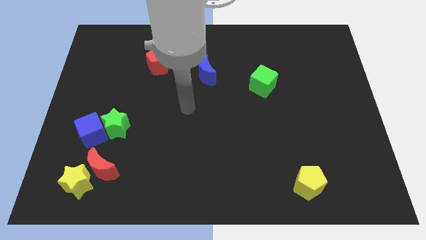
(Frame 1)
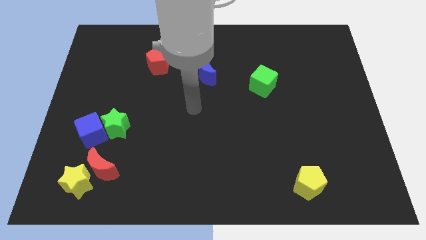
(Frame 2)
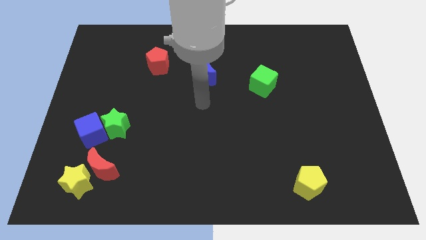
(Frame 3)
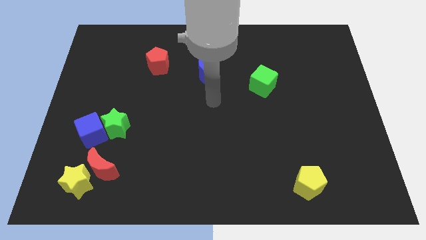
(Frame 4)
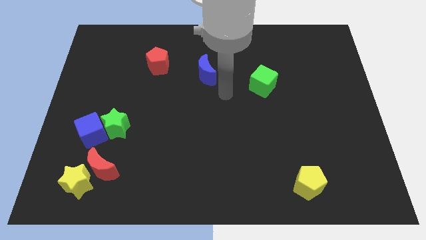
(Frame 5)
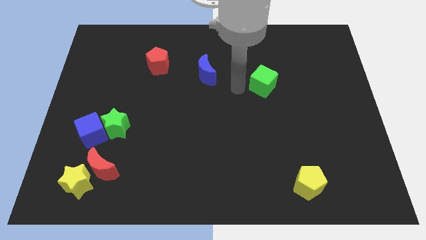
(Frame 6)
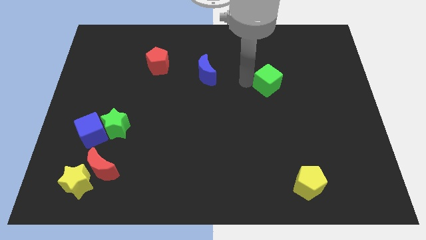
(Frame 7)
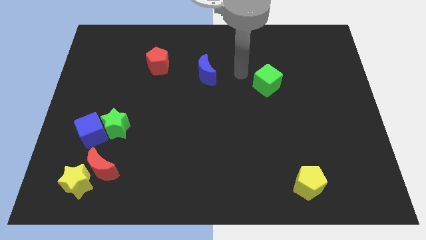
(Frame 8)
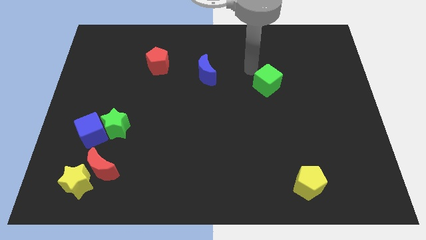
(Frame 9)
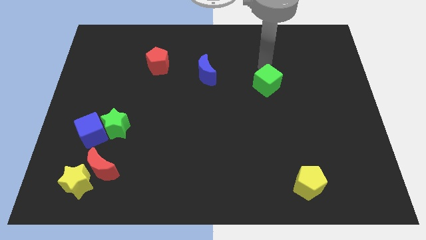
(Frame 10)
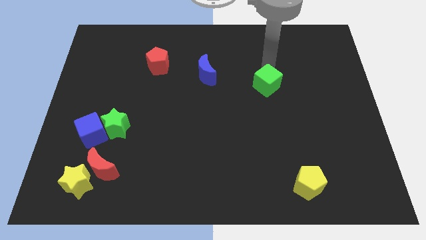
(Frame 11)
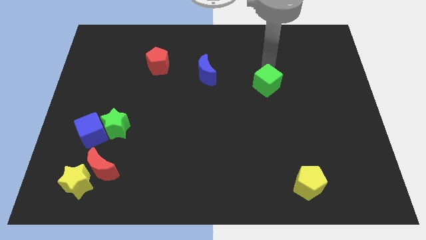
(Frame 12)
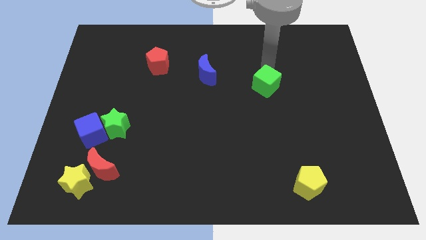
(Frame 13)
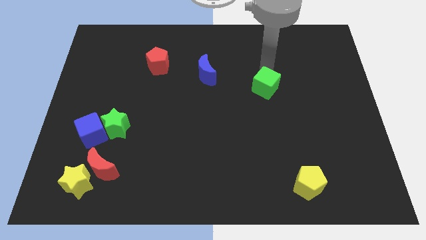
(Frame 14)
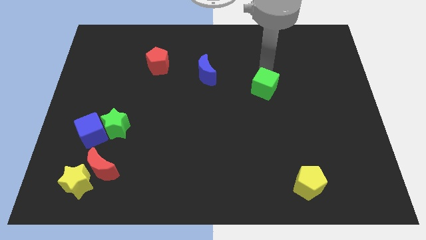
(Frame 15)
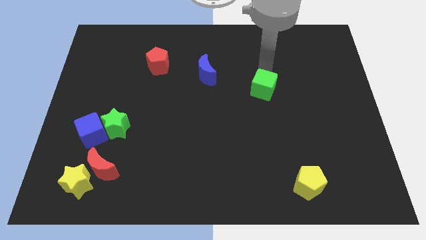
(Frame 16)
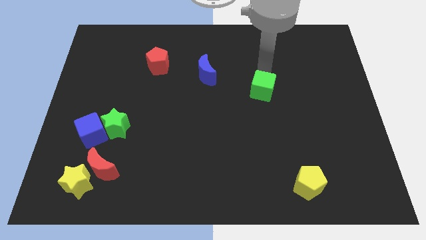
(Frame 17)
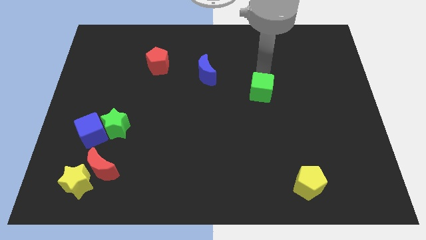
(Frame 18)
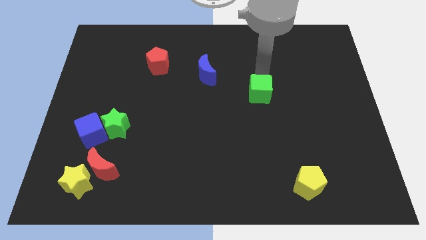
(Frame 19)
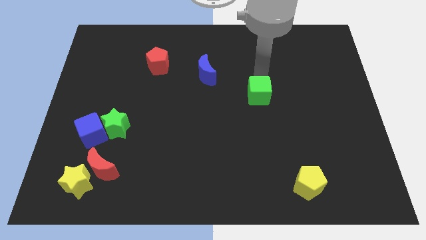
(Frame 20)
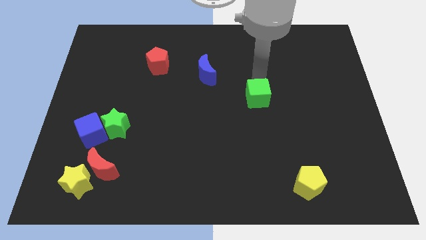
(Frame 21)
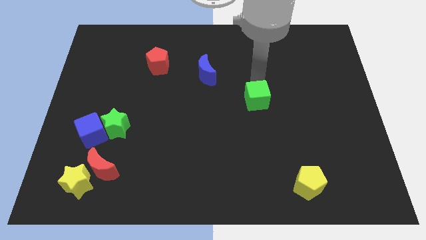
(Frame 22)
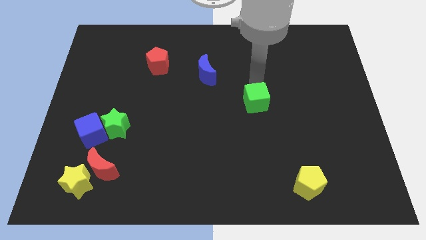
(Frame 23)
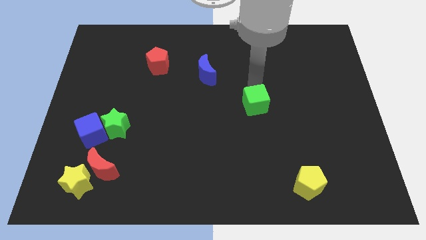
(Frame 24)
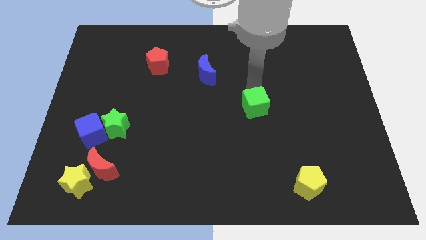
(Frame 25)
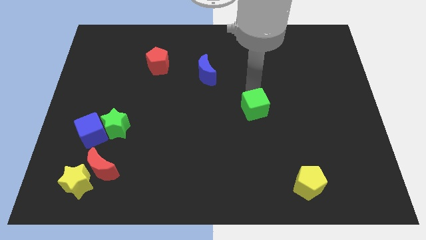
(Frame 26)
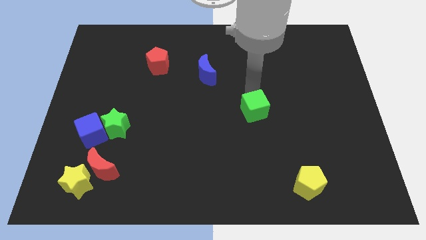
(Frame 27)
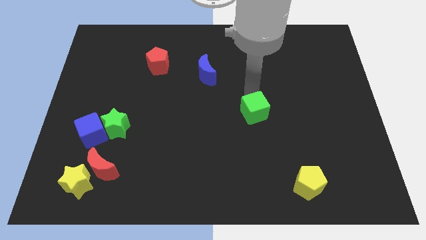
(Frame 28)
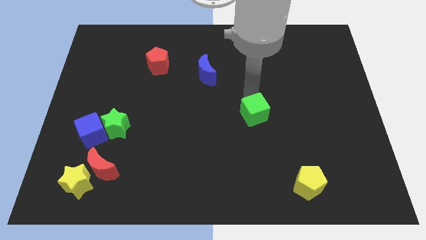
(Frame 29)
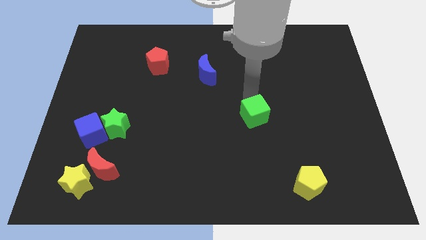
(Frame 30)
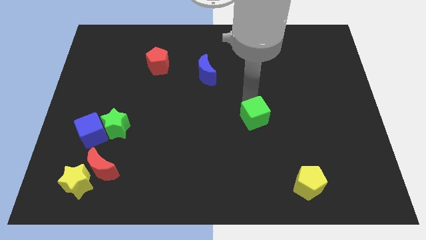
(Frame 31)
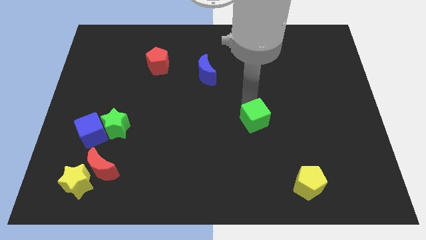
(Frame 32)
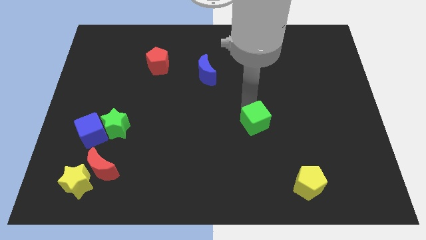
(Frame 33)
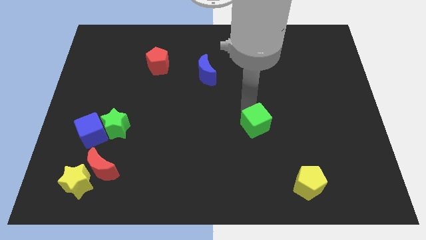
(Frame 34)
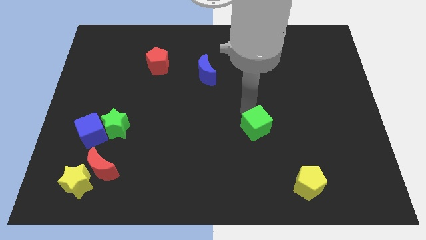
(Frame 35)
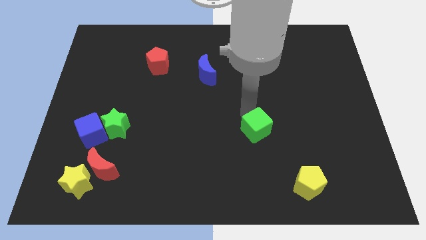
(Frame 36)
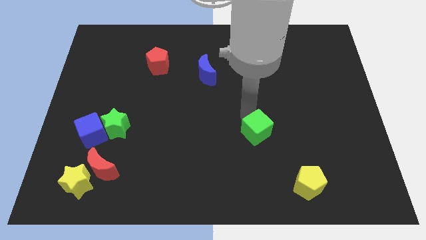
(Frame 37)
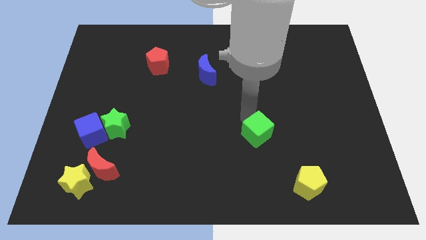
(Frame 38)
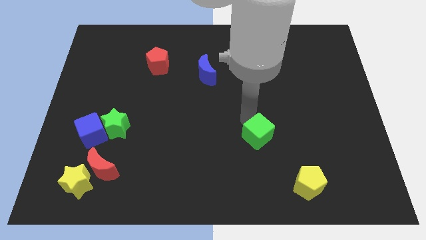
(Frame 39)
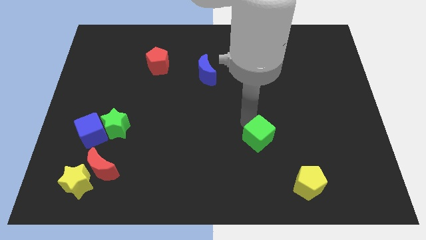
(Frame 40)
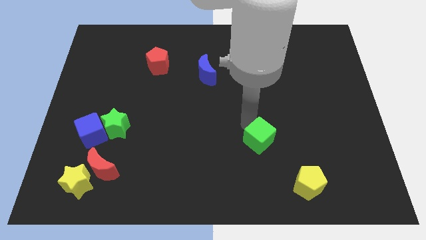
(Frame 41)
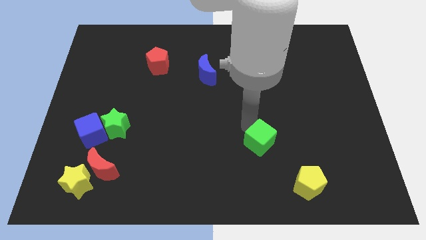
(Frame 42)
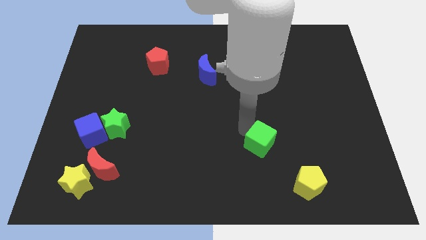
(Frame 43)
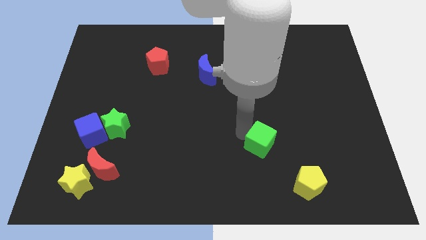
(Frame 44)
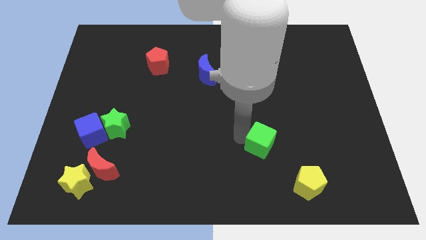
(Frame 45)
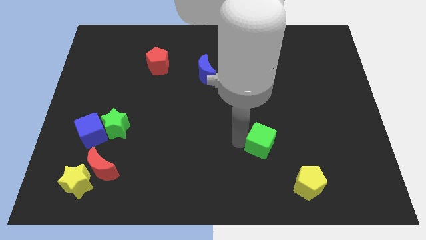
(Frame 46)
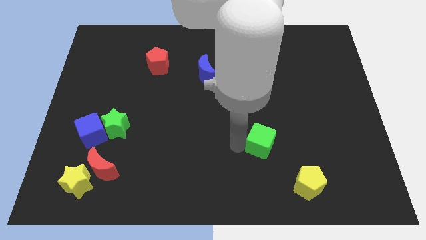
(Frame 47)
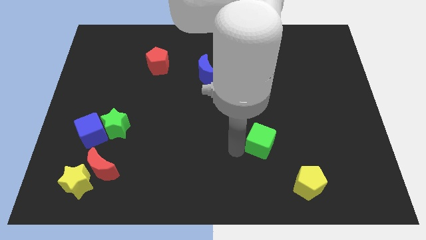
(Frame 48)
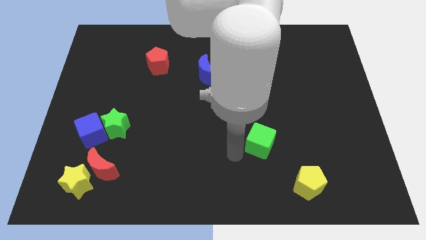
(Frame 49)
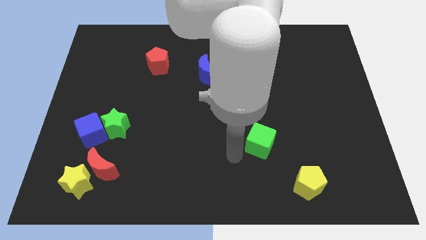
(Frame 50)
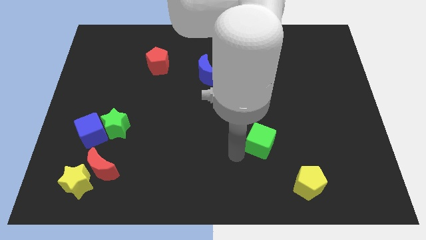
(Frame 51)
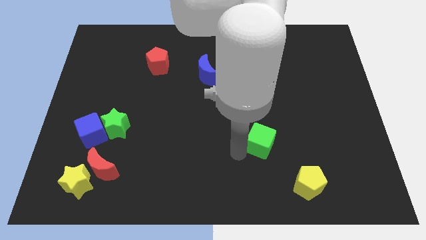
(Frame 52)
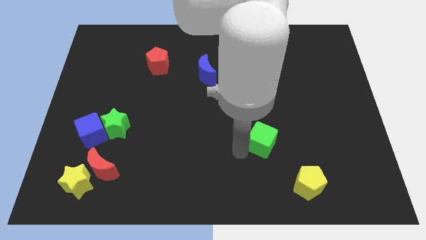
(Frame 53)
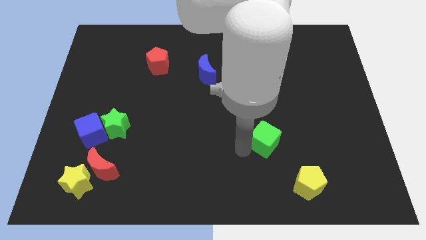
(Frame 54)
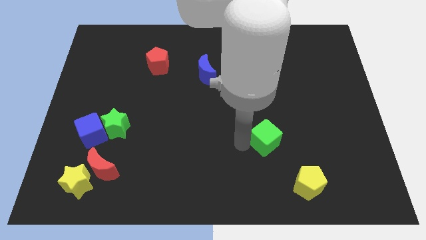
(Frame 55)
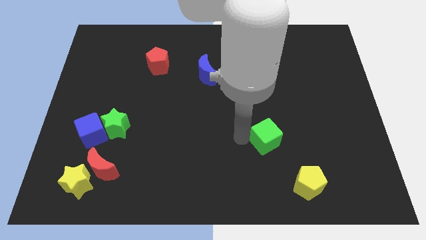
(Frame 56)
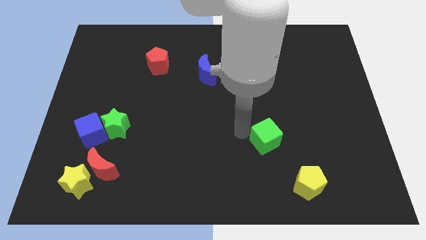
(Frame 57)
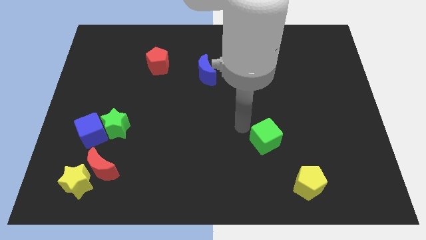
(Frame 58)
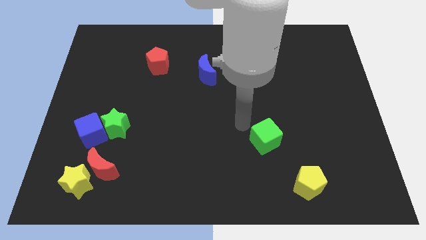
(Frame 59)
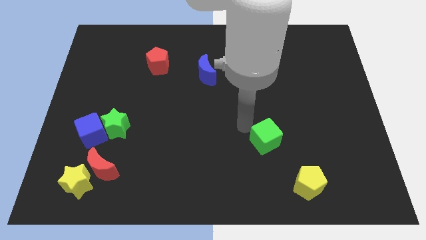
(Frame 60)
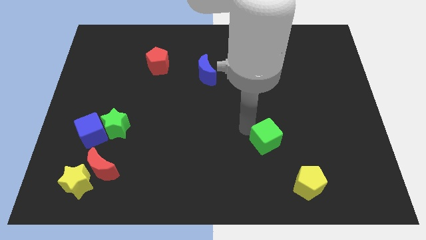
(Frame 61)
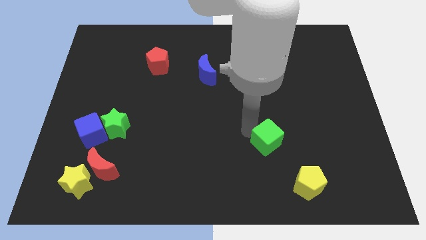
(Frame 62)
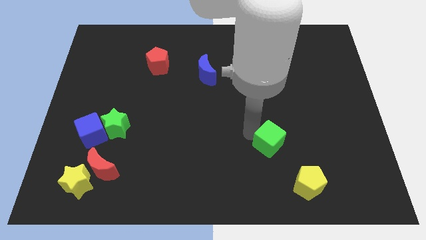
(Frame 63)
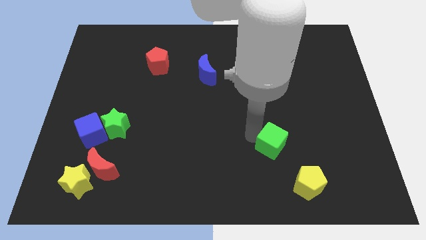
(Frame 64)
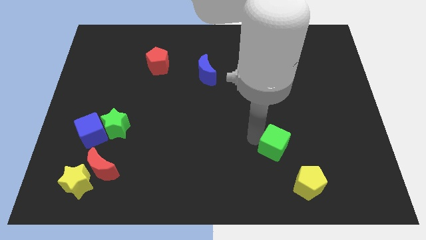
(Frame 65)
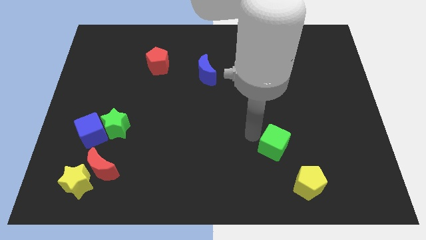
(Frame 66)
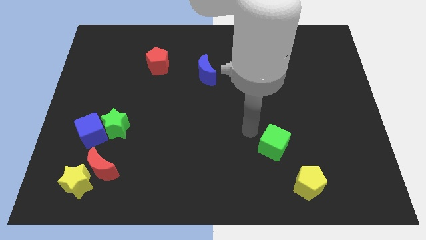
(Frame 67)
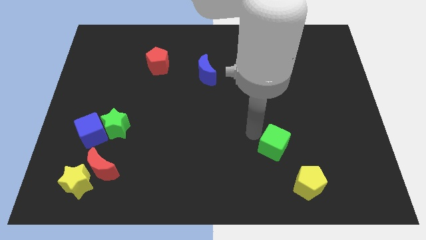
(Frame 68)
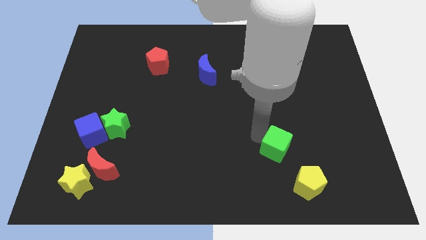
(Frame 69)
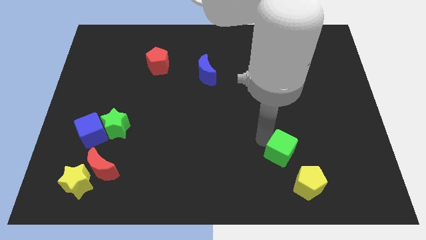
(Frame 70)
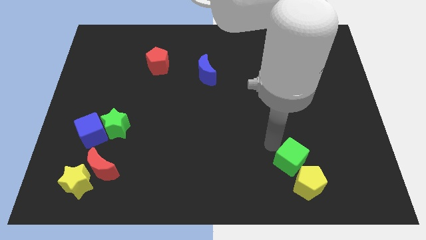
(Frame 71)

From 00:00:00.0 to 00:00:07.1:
push the green cube to the yellow pentagon
